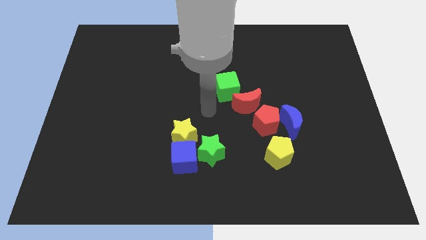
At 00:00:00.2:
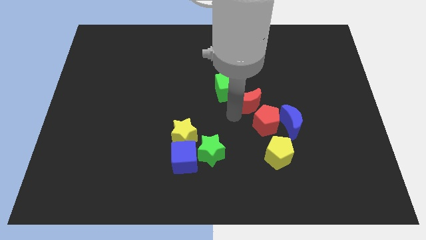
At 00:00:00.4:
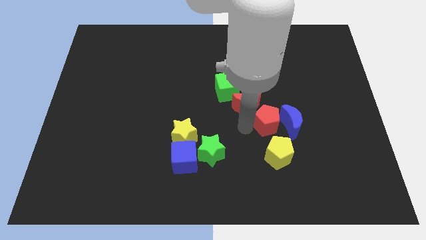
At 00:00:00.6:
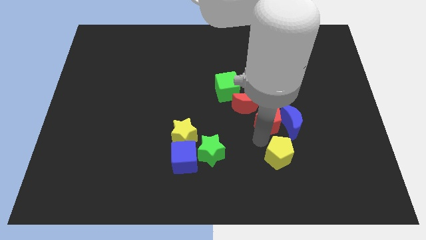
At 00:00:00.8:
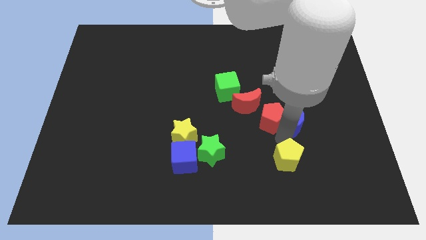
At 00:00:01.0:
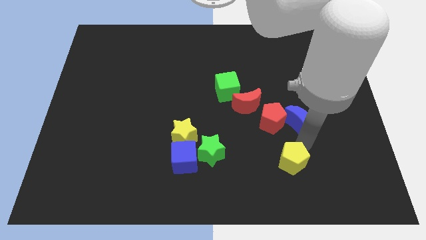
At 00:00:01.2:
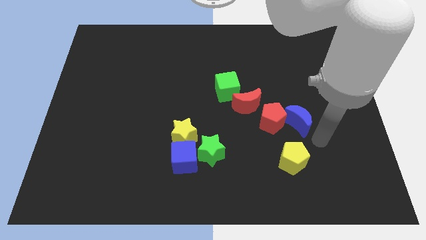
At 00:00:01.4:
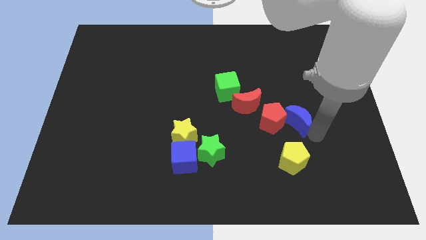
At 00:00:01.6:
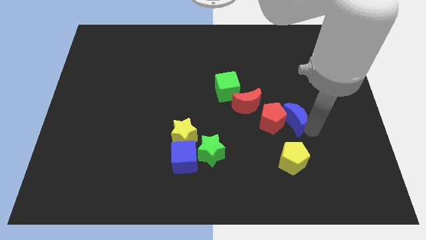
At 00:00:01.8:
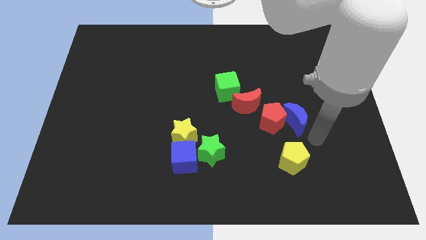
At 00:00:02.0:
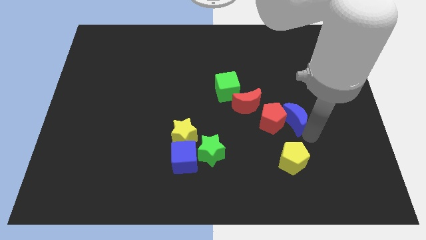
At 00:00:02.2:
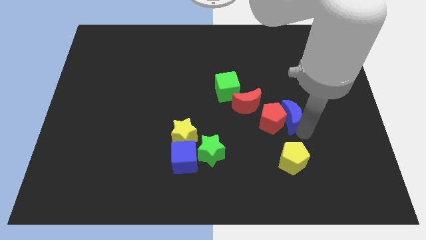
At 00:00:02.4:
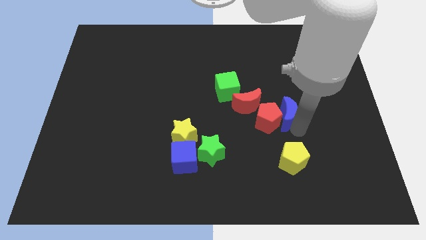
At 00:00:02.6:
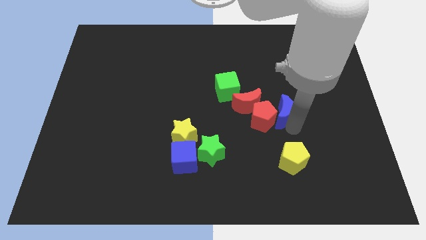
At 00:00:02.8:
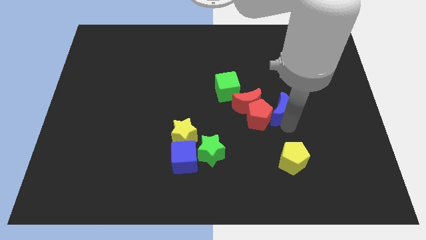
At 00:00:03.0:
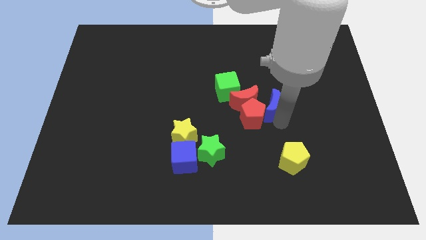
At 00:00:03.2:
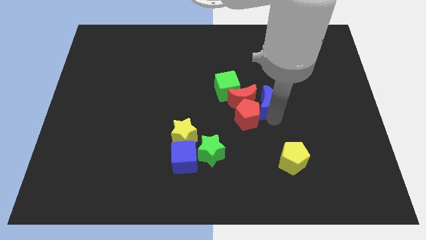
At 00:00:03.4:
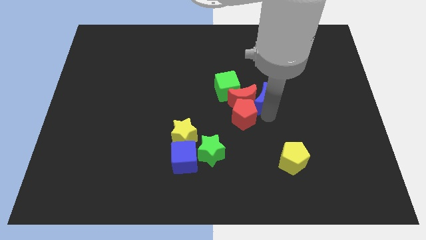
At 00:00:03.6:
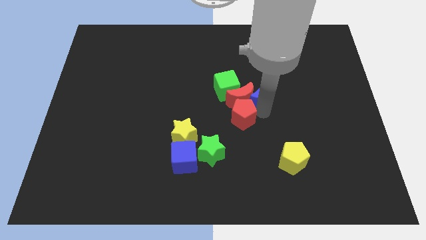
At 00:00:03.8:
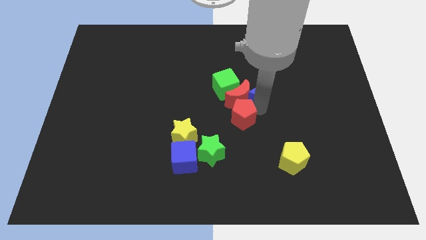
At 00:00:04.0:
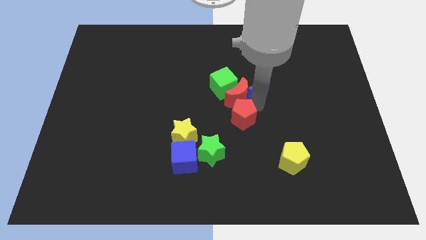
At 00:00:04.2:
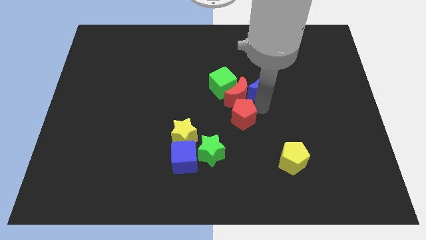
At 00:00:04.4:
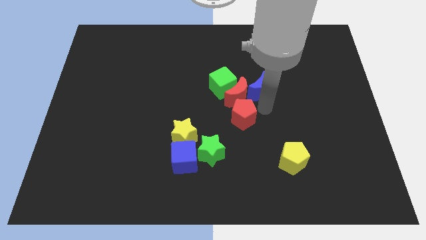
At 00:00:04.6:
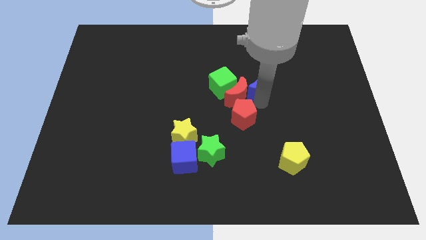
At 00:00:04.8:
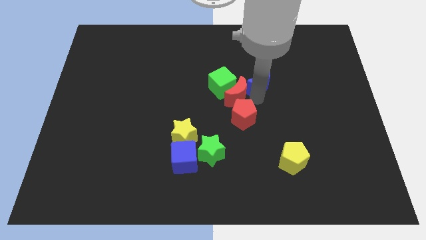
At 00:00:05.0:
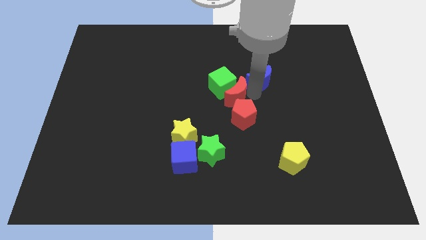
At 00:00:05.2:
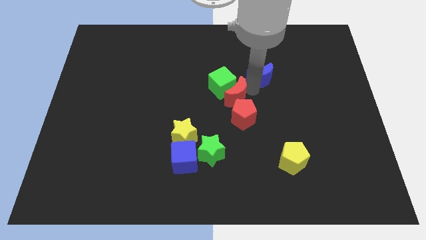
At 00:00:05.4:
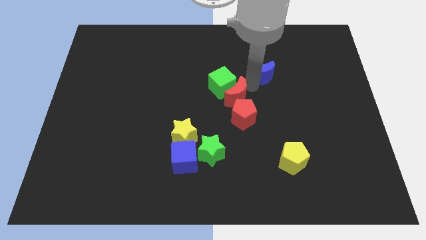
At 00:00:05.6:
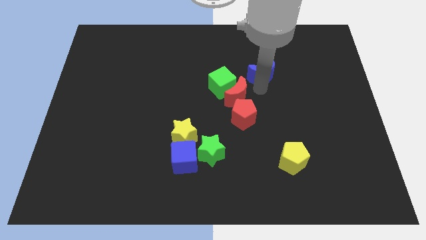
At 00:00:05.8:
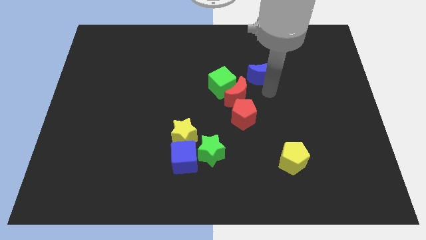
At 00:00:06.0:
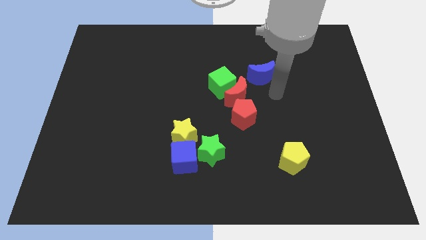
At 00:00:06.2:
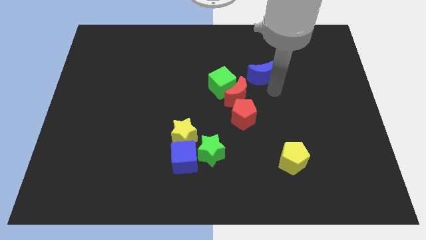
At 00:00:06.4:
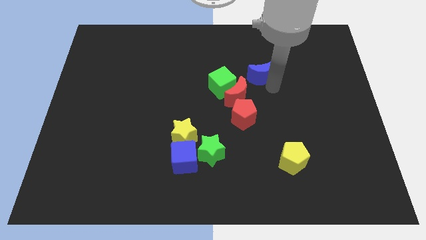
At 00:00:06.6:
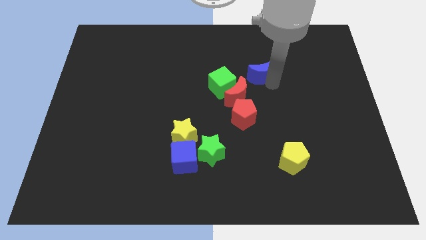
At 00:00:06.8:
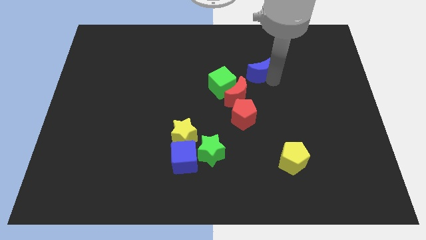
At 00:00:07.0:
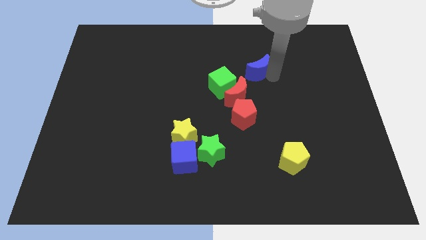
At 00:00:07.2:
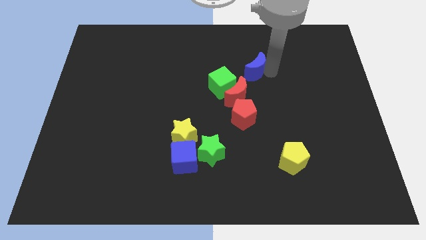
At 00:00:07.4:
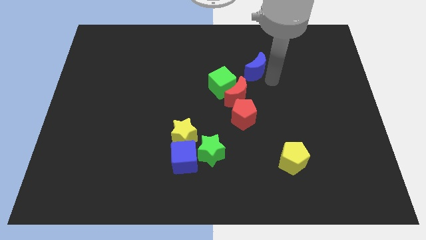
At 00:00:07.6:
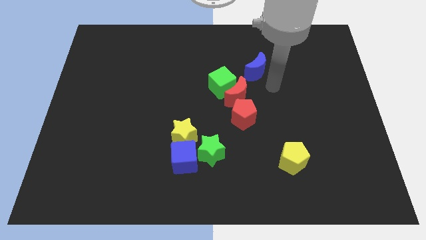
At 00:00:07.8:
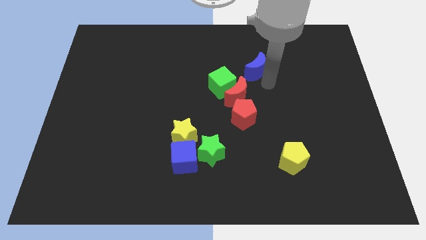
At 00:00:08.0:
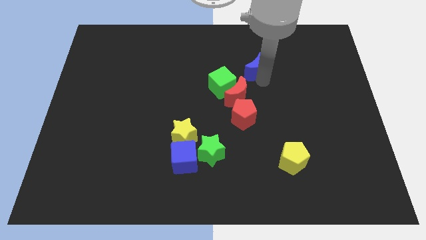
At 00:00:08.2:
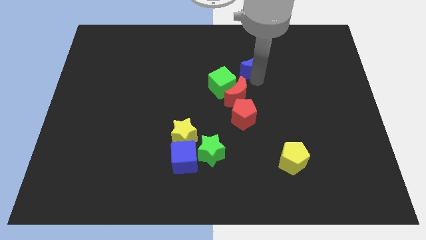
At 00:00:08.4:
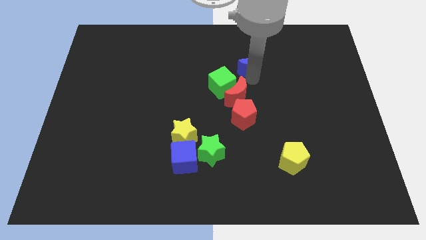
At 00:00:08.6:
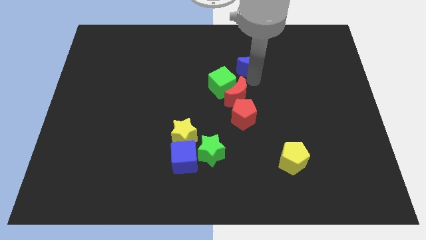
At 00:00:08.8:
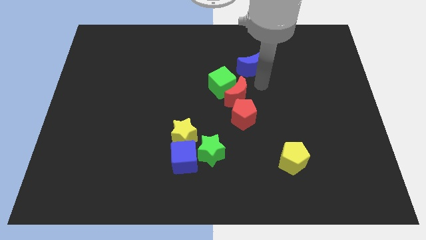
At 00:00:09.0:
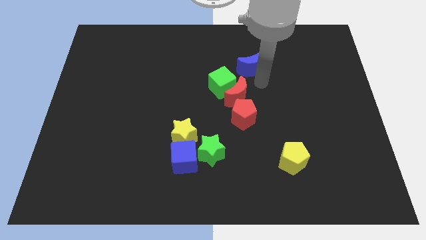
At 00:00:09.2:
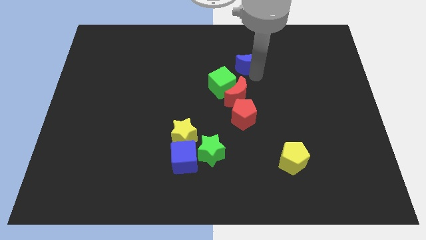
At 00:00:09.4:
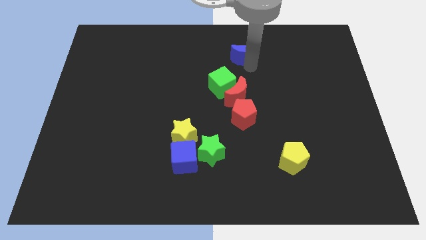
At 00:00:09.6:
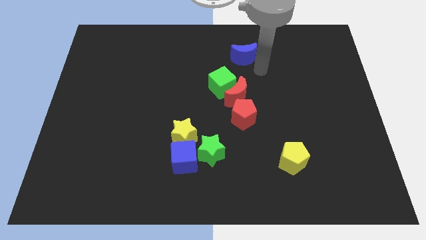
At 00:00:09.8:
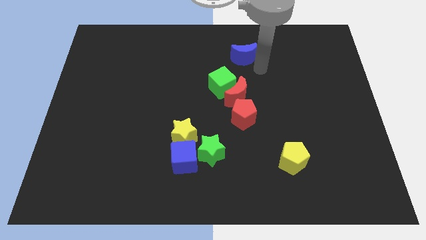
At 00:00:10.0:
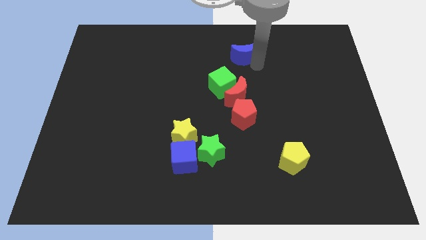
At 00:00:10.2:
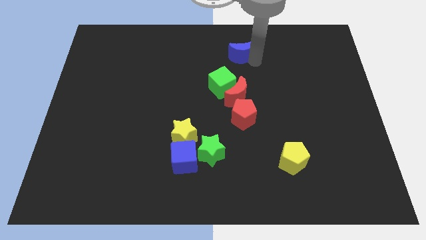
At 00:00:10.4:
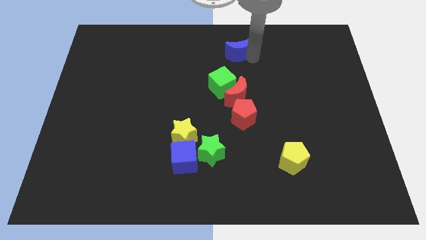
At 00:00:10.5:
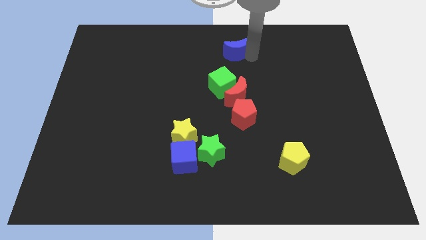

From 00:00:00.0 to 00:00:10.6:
move the blue moon to the towards your base

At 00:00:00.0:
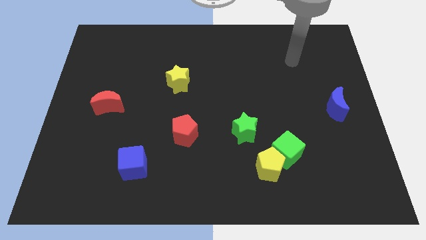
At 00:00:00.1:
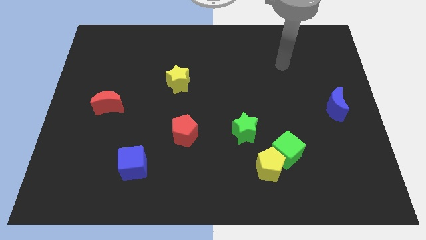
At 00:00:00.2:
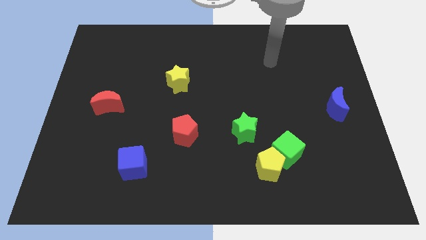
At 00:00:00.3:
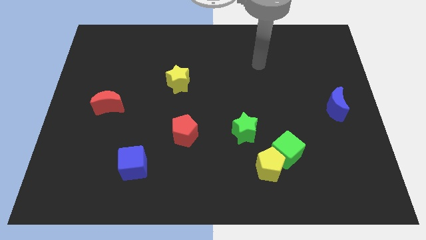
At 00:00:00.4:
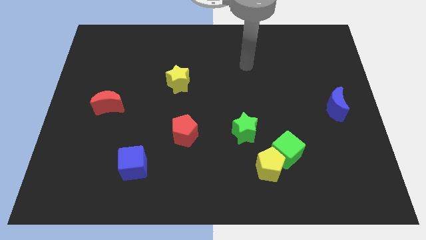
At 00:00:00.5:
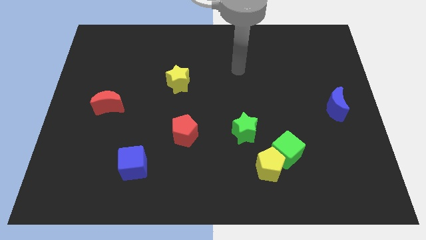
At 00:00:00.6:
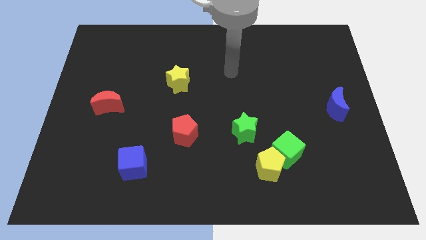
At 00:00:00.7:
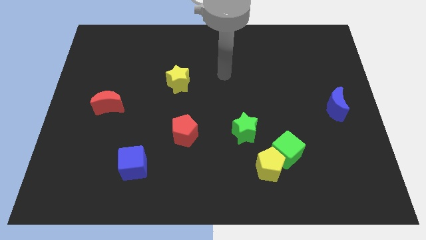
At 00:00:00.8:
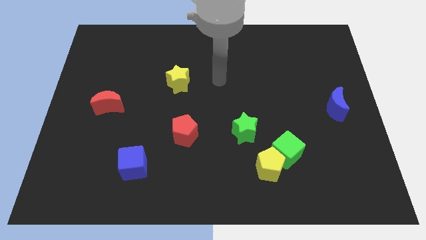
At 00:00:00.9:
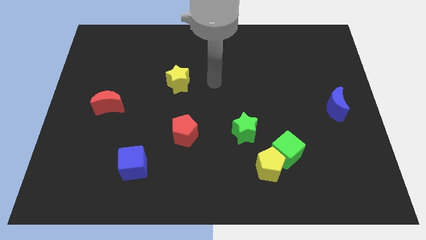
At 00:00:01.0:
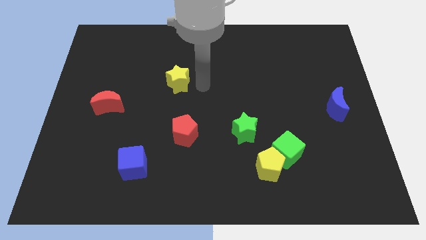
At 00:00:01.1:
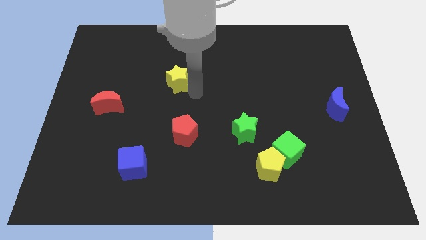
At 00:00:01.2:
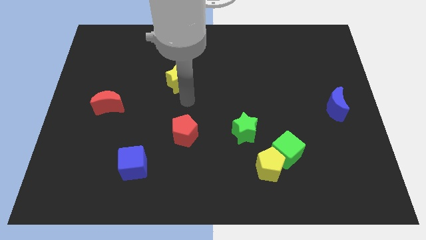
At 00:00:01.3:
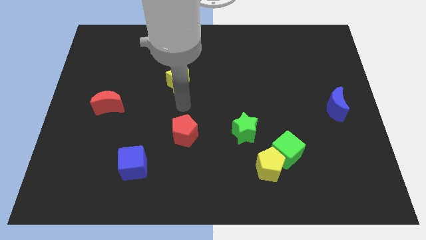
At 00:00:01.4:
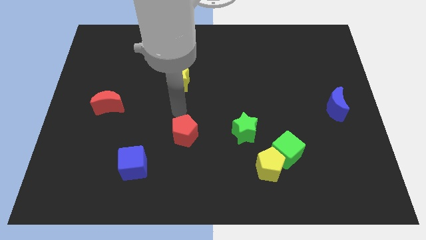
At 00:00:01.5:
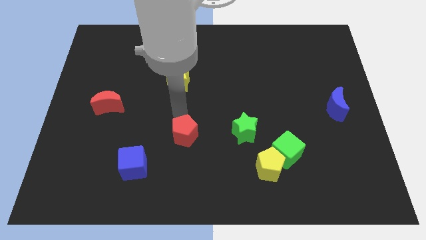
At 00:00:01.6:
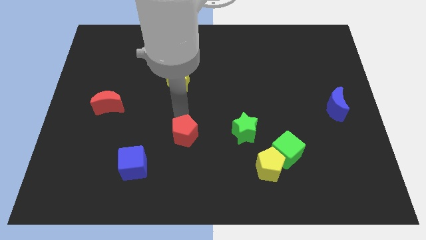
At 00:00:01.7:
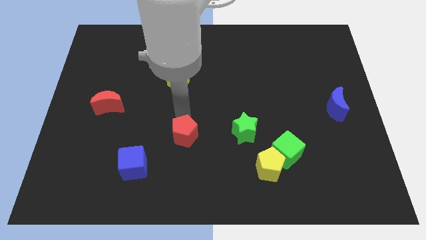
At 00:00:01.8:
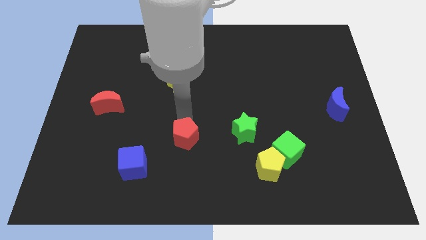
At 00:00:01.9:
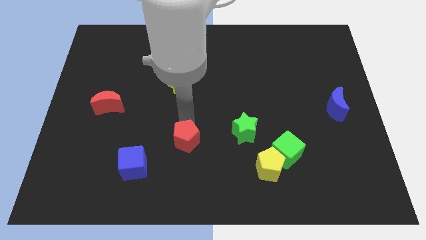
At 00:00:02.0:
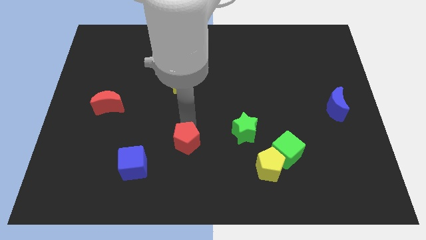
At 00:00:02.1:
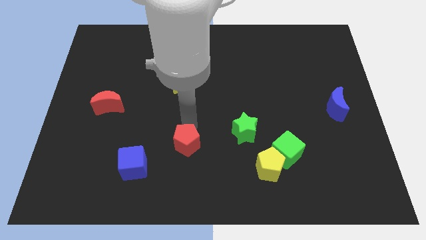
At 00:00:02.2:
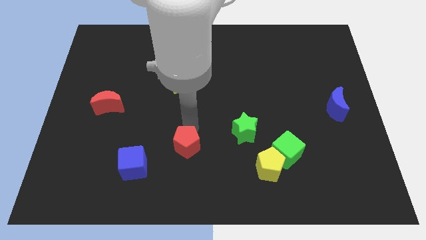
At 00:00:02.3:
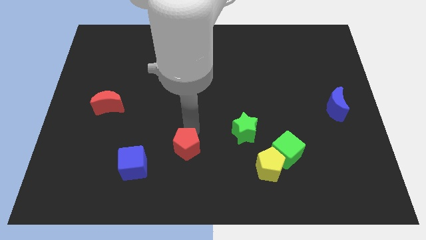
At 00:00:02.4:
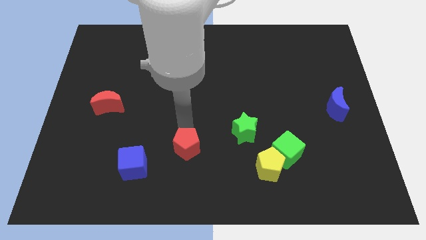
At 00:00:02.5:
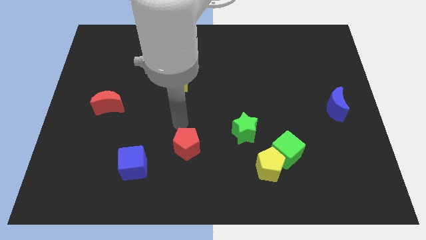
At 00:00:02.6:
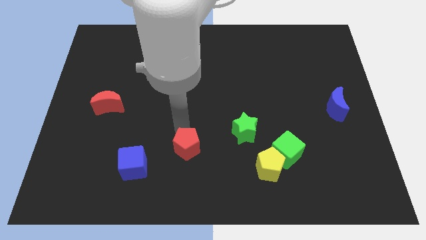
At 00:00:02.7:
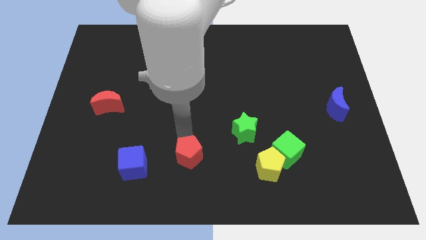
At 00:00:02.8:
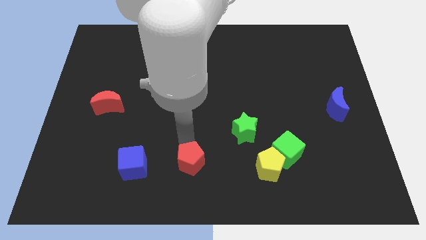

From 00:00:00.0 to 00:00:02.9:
slide the red pentagon to the bottom side
